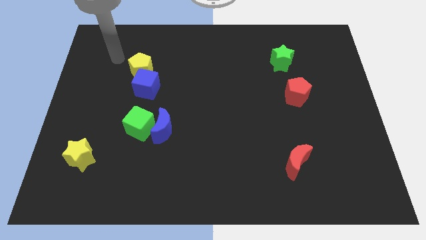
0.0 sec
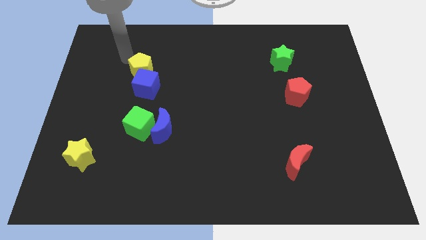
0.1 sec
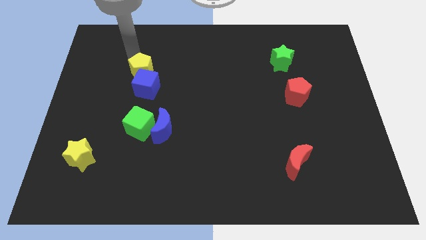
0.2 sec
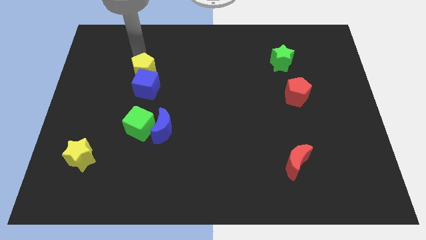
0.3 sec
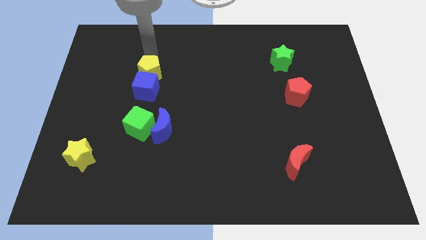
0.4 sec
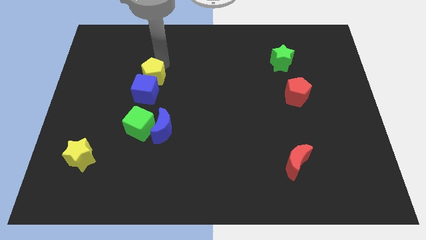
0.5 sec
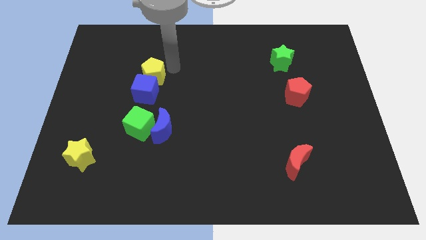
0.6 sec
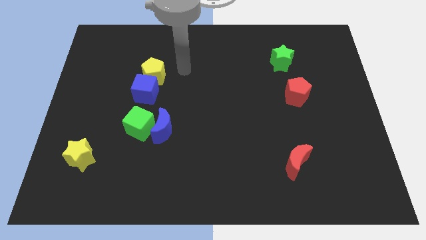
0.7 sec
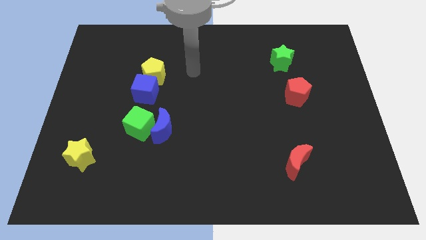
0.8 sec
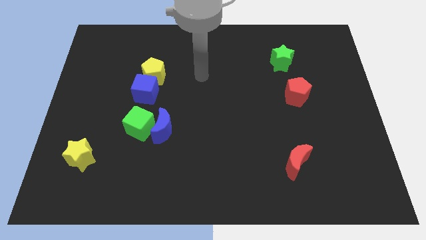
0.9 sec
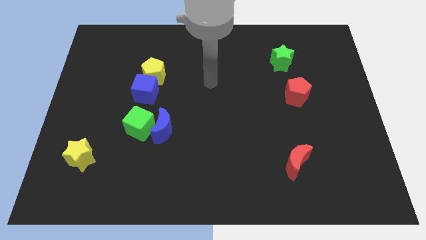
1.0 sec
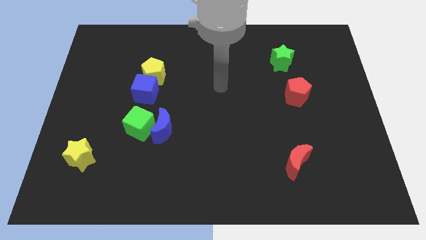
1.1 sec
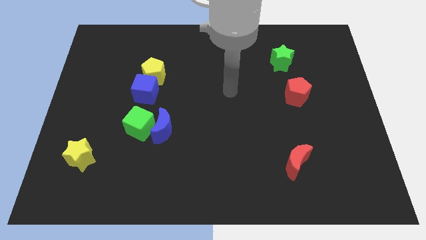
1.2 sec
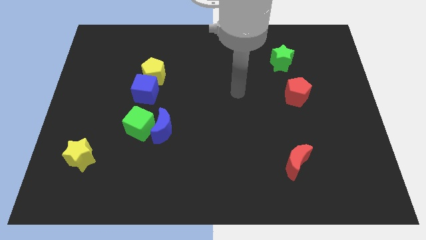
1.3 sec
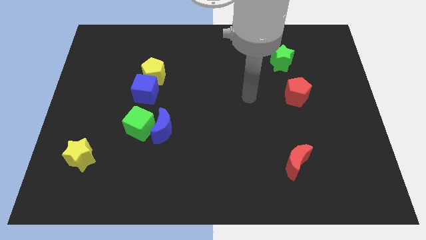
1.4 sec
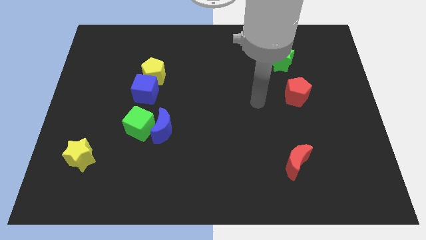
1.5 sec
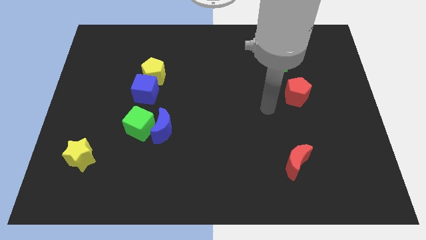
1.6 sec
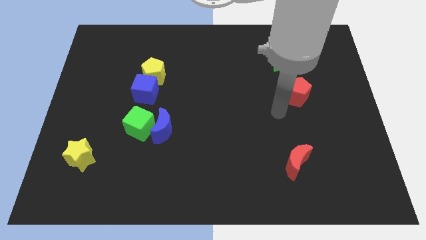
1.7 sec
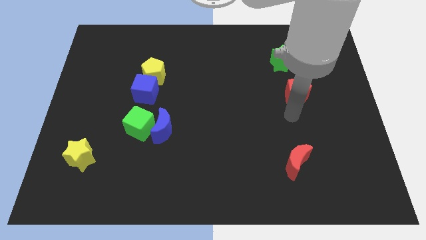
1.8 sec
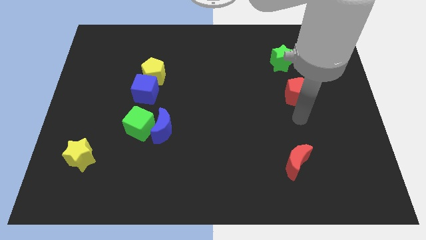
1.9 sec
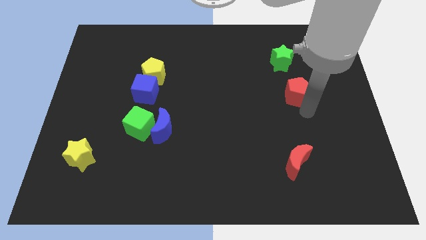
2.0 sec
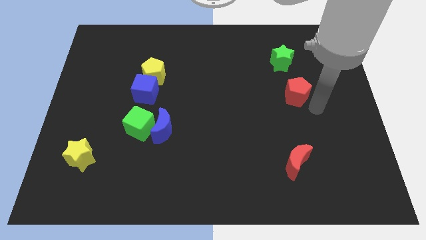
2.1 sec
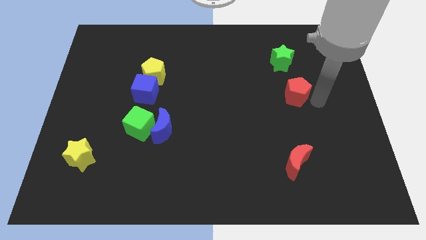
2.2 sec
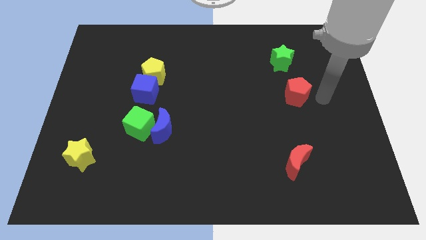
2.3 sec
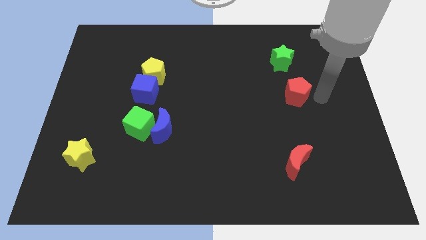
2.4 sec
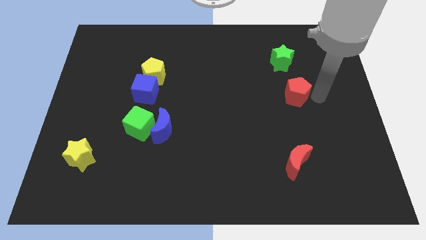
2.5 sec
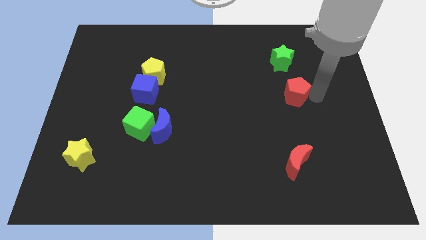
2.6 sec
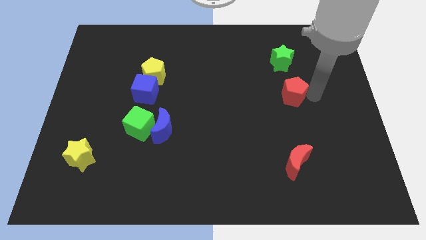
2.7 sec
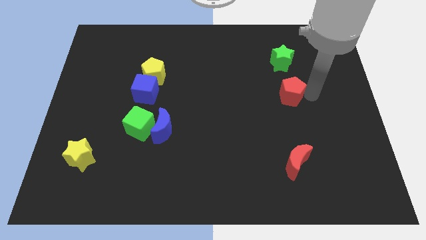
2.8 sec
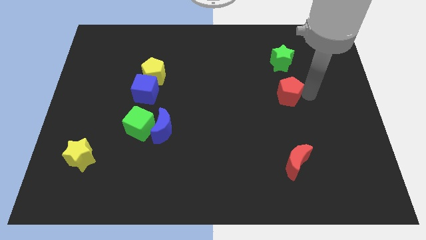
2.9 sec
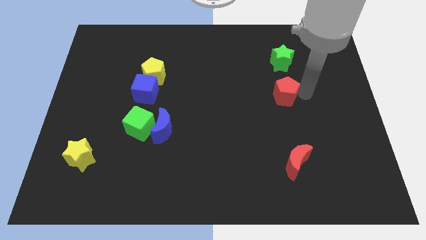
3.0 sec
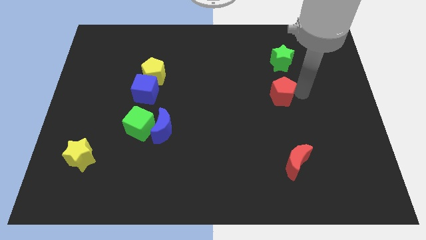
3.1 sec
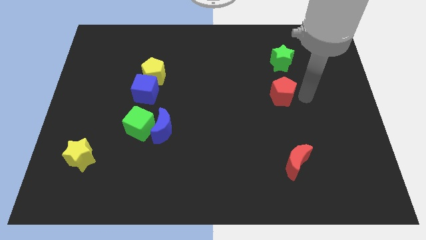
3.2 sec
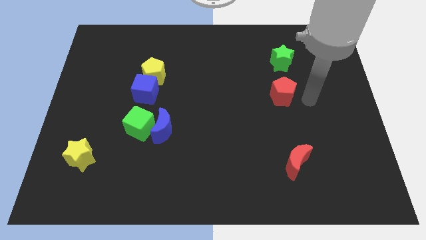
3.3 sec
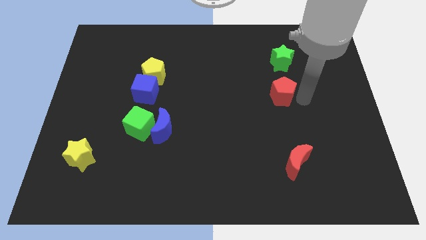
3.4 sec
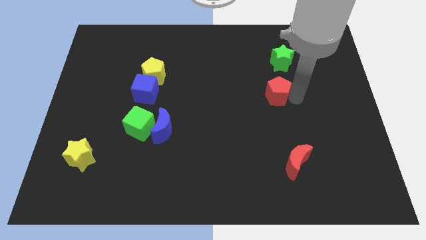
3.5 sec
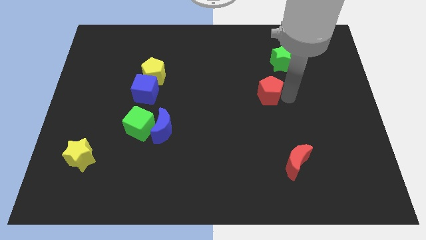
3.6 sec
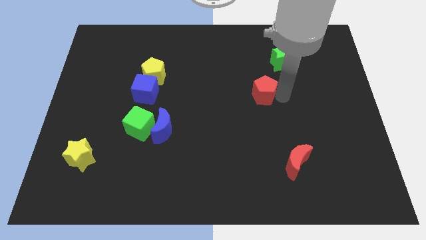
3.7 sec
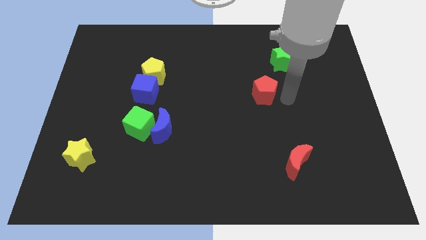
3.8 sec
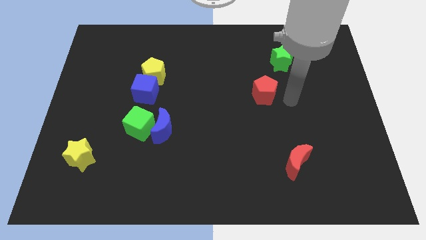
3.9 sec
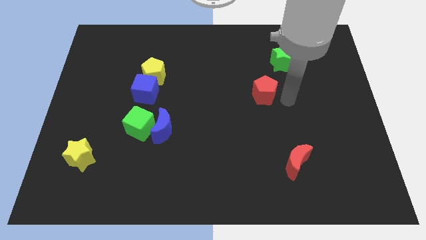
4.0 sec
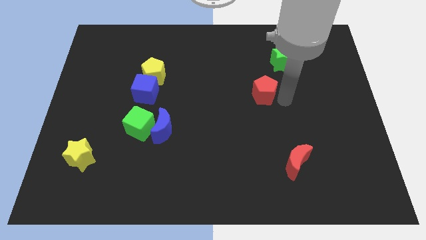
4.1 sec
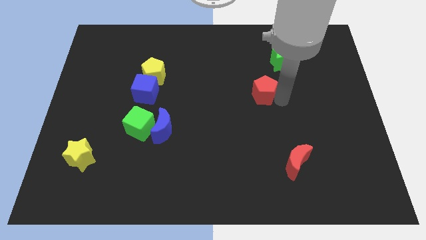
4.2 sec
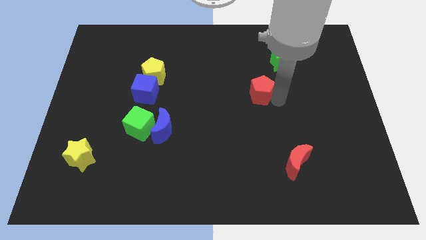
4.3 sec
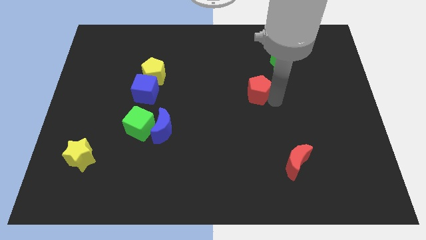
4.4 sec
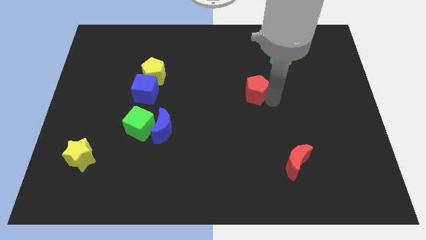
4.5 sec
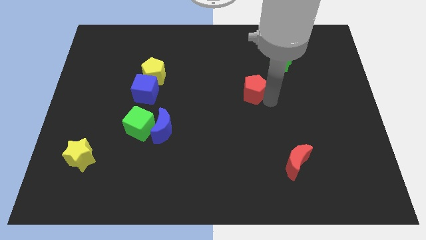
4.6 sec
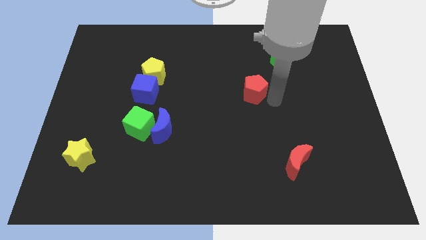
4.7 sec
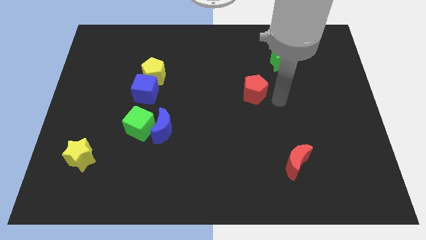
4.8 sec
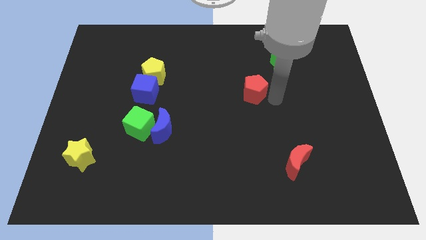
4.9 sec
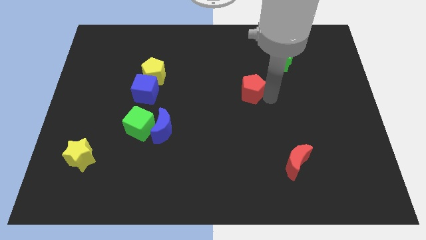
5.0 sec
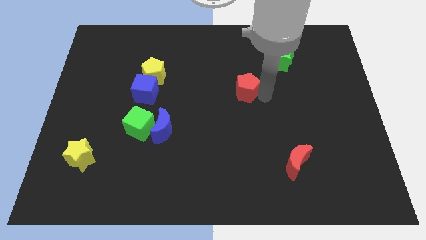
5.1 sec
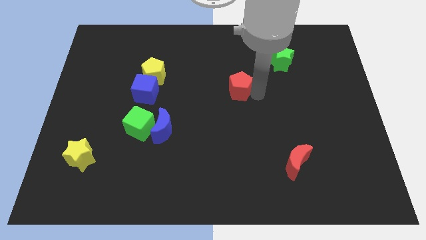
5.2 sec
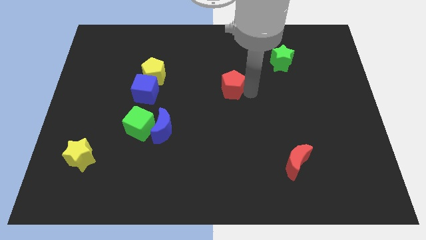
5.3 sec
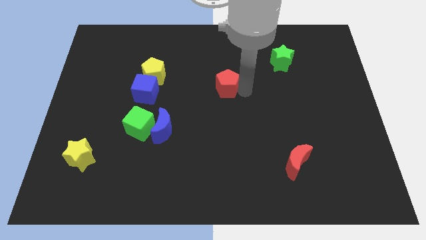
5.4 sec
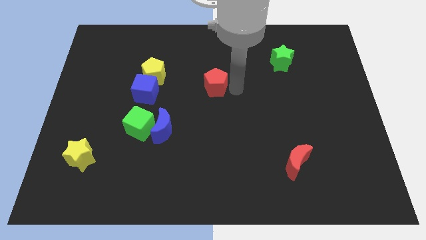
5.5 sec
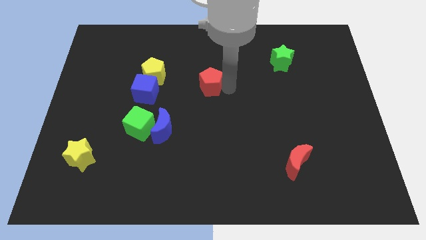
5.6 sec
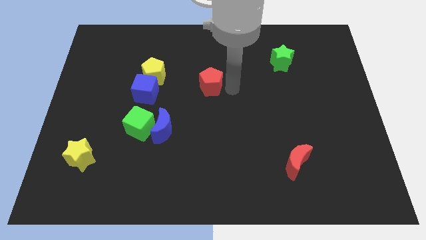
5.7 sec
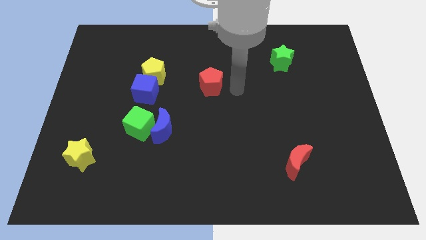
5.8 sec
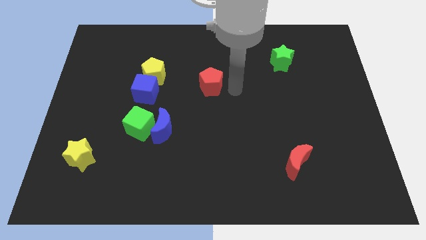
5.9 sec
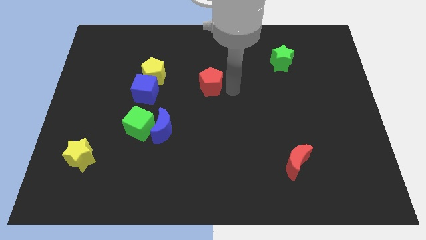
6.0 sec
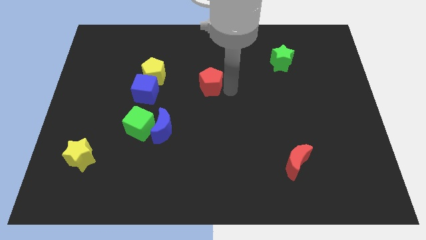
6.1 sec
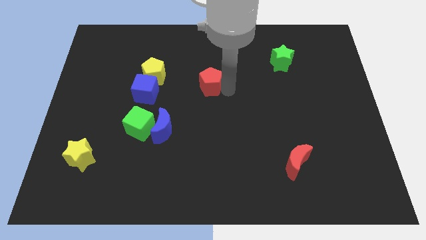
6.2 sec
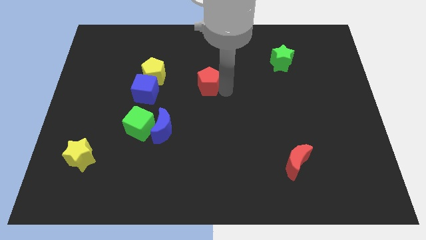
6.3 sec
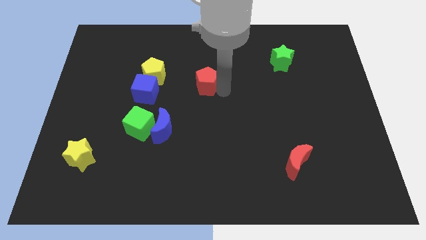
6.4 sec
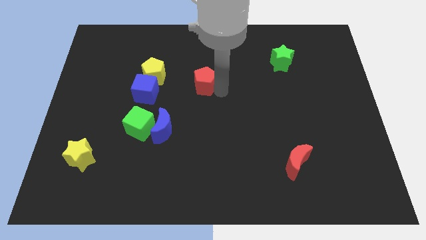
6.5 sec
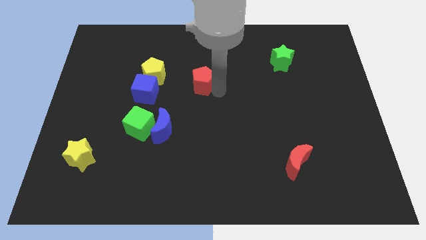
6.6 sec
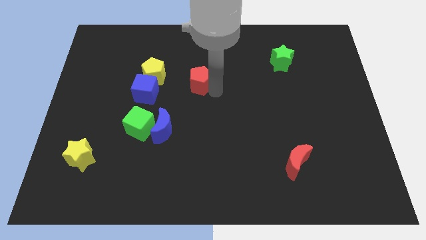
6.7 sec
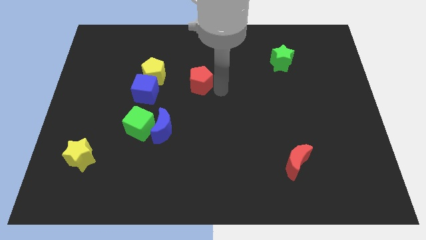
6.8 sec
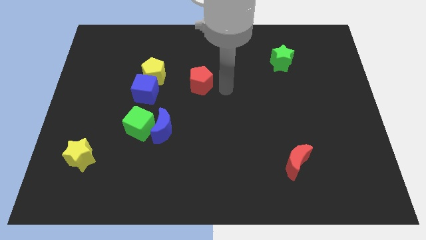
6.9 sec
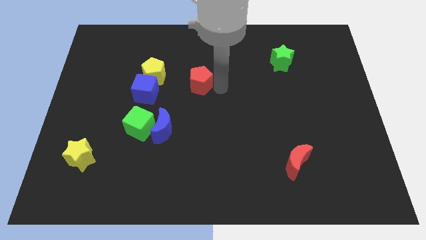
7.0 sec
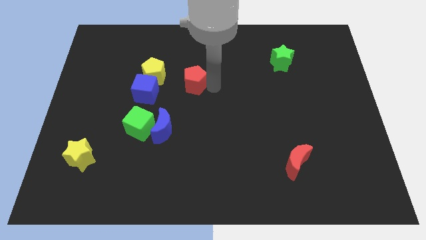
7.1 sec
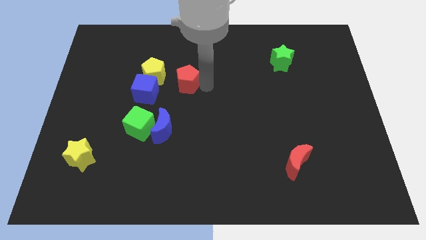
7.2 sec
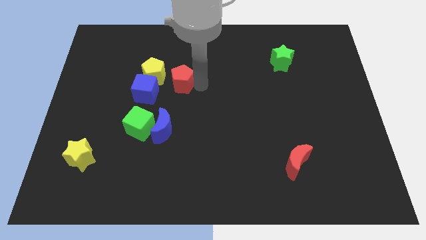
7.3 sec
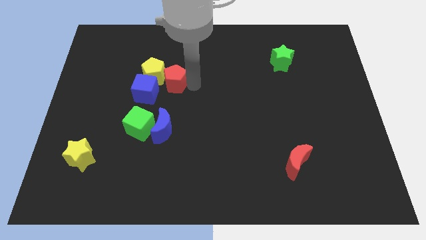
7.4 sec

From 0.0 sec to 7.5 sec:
move the red pentagon to the yellow pentagon
